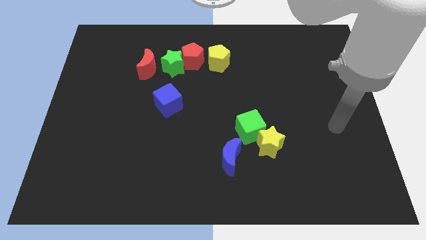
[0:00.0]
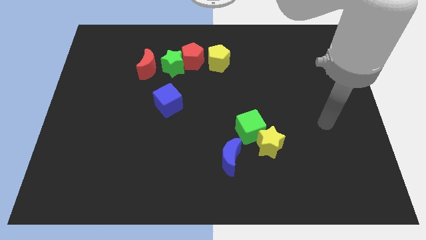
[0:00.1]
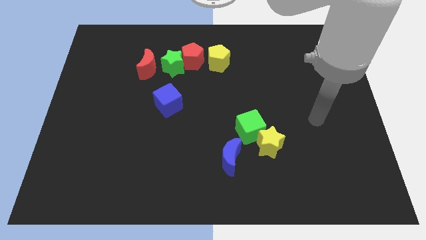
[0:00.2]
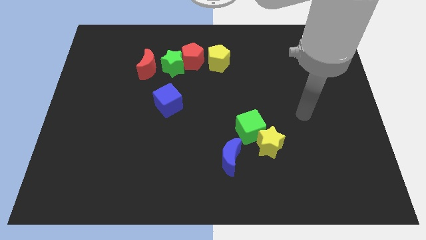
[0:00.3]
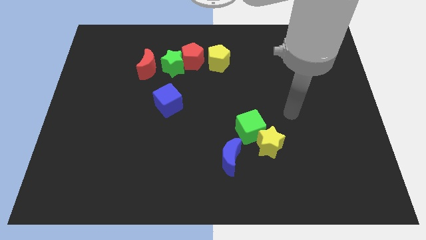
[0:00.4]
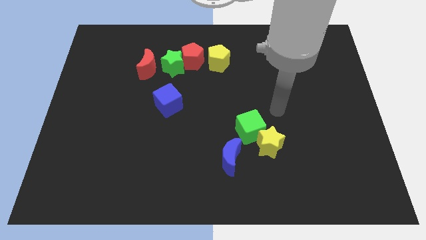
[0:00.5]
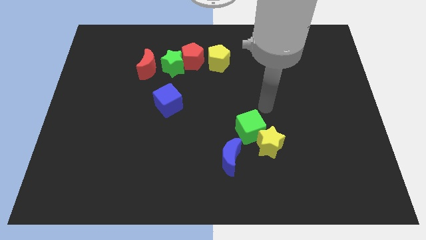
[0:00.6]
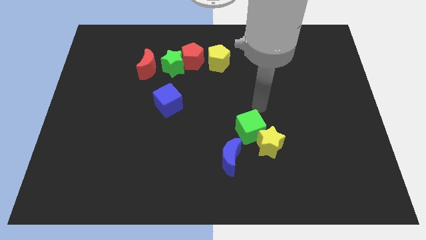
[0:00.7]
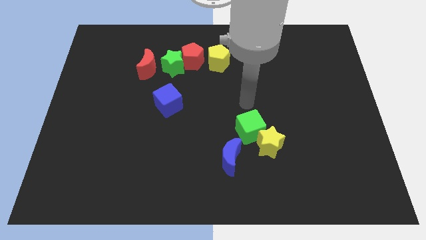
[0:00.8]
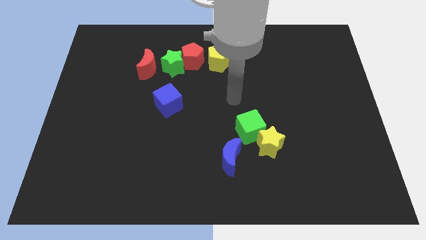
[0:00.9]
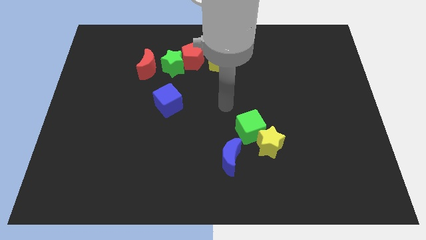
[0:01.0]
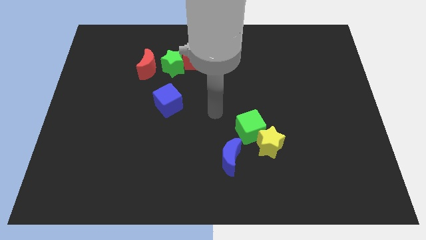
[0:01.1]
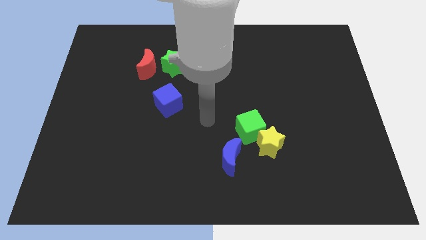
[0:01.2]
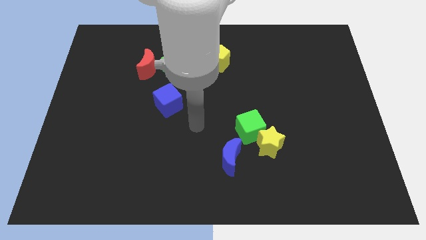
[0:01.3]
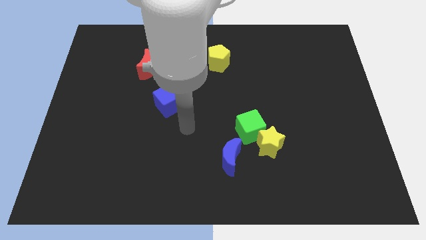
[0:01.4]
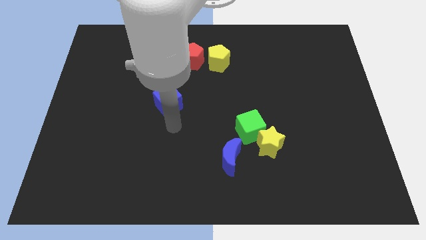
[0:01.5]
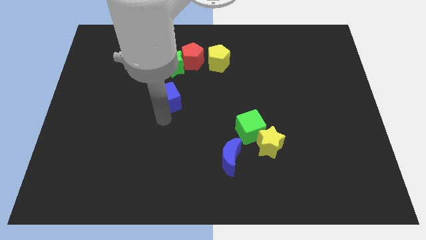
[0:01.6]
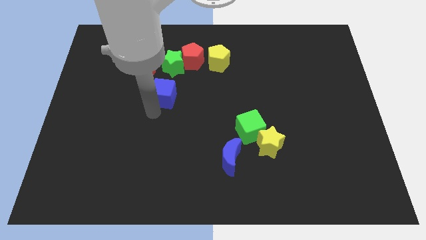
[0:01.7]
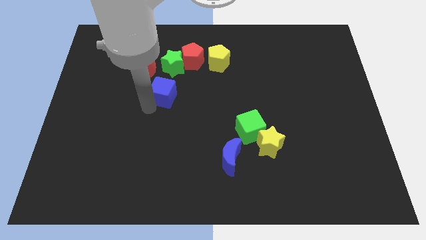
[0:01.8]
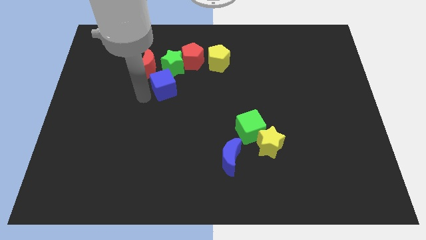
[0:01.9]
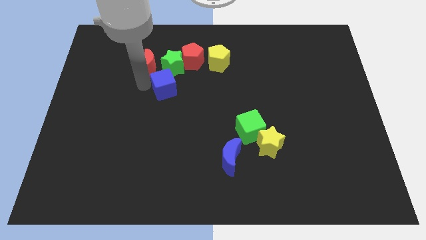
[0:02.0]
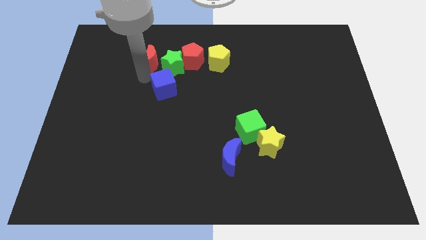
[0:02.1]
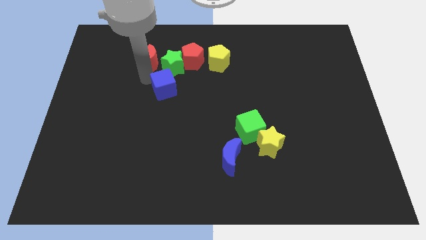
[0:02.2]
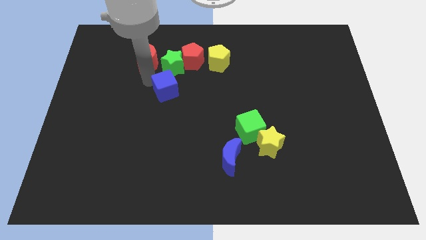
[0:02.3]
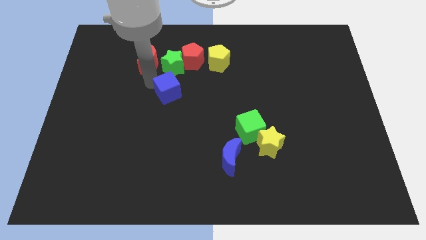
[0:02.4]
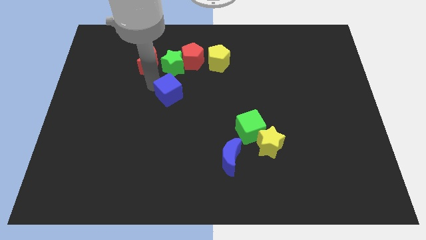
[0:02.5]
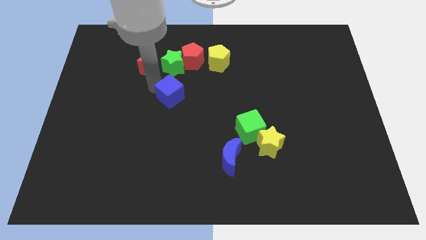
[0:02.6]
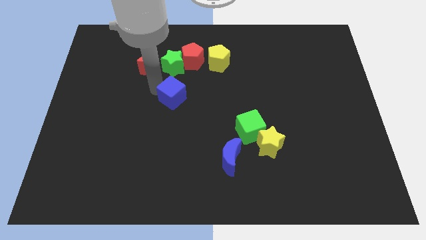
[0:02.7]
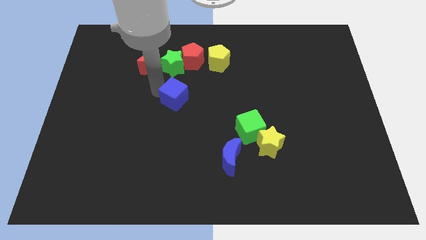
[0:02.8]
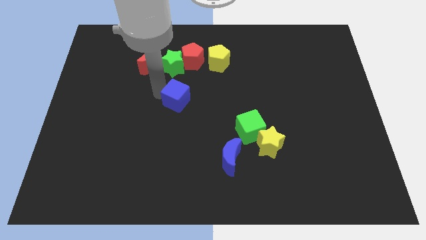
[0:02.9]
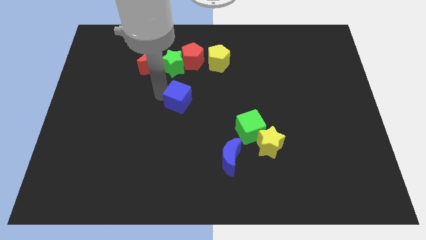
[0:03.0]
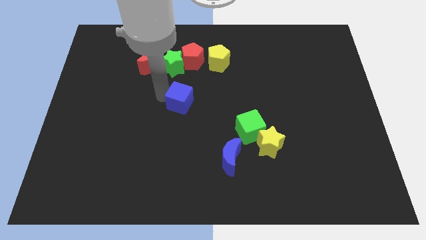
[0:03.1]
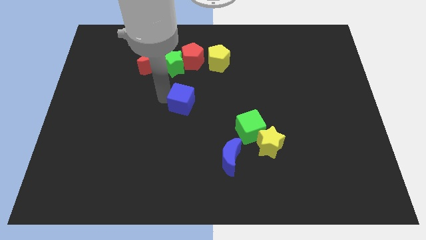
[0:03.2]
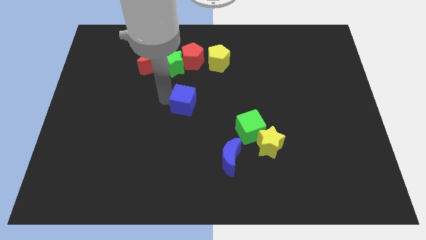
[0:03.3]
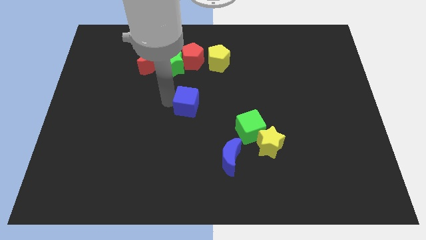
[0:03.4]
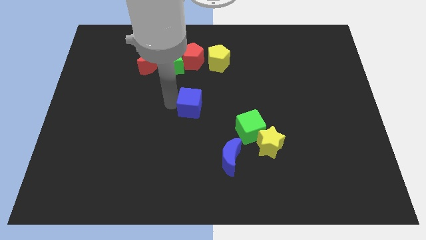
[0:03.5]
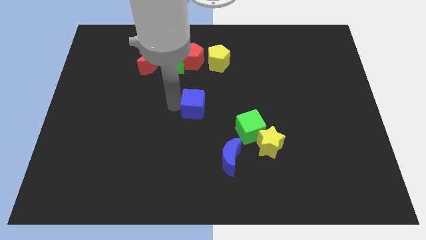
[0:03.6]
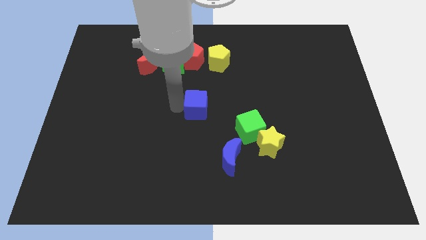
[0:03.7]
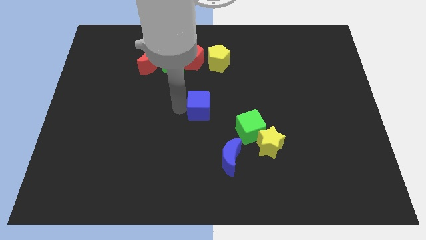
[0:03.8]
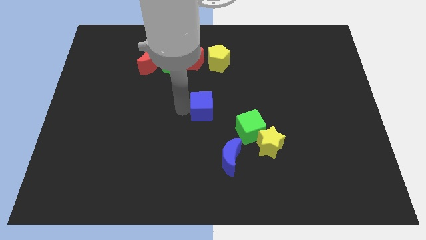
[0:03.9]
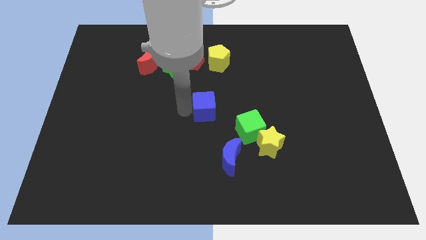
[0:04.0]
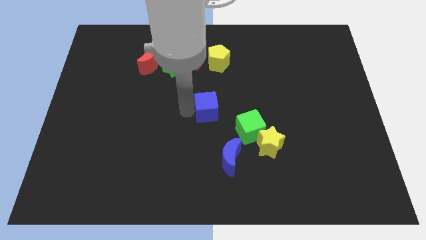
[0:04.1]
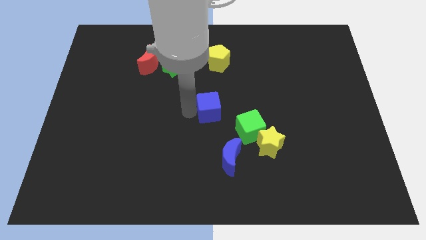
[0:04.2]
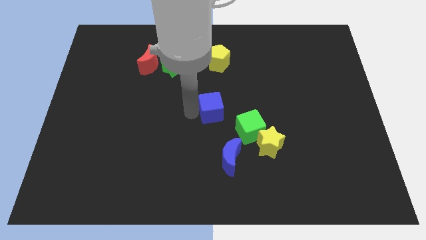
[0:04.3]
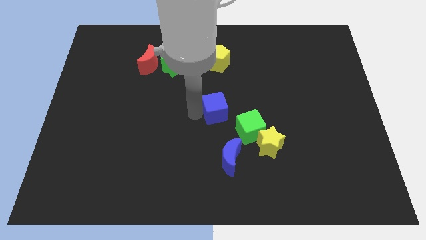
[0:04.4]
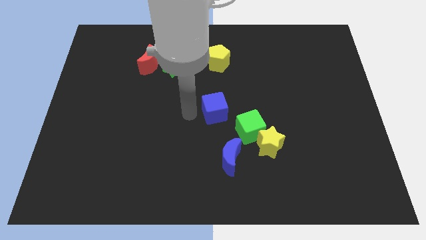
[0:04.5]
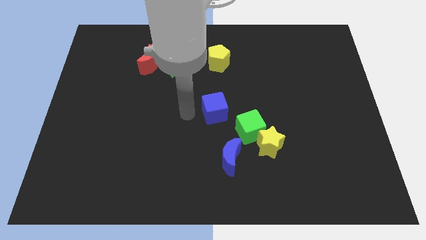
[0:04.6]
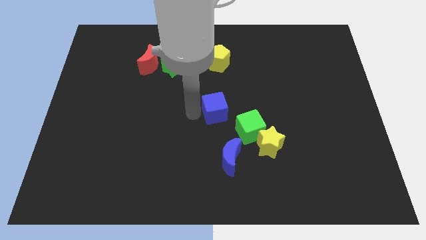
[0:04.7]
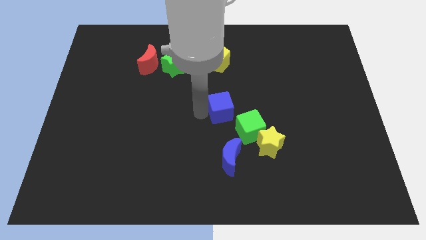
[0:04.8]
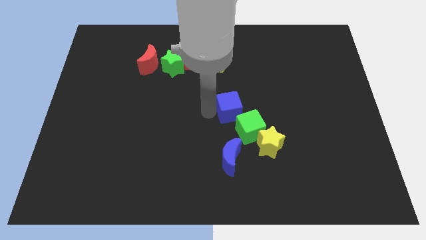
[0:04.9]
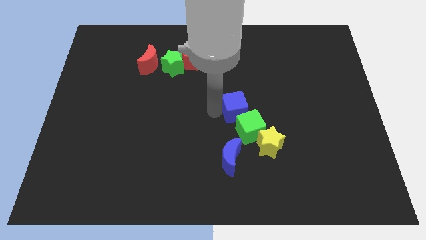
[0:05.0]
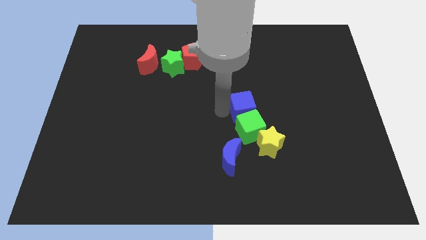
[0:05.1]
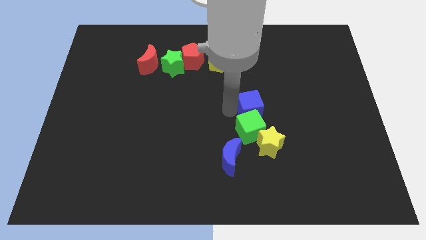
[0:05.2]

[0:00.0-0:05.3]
push the blue cube to the top side of the yellow star

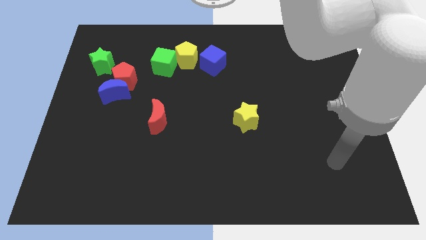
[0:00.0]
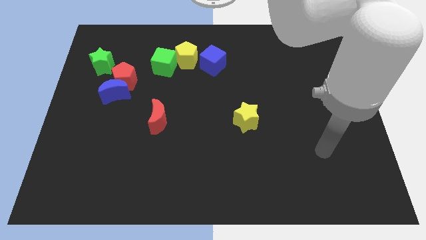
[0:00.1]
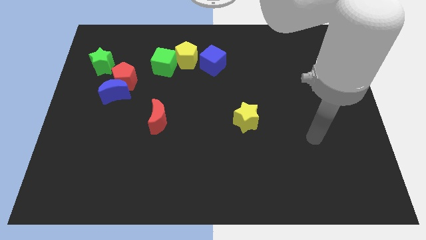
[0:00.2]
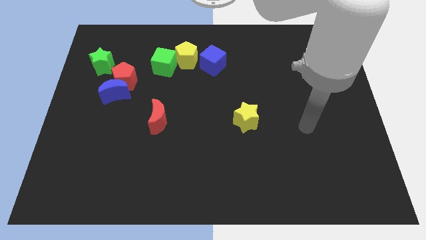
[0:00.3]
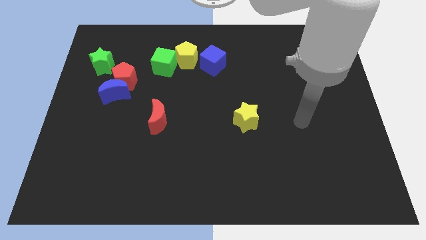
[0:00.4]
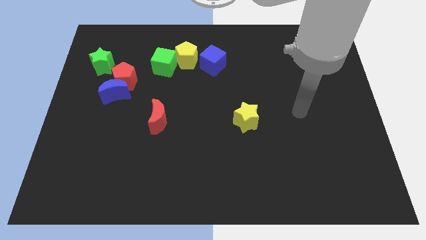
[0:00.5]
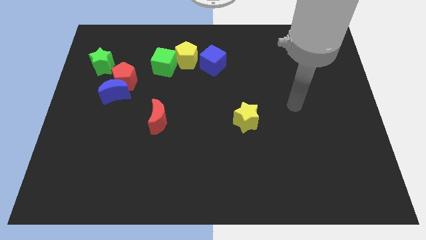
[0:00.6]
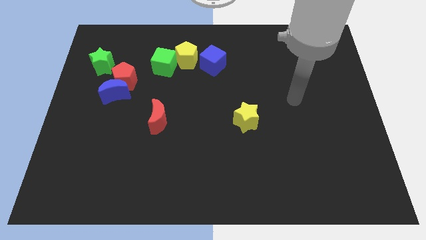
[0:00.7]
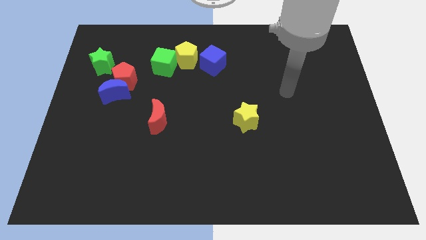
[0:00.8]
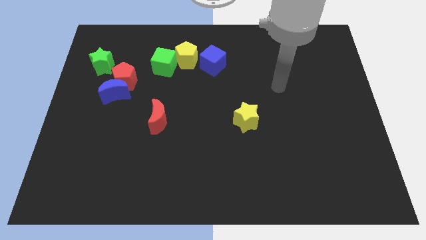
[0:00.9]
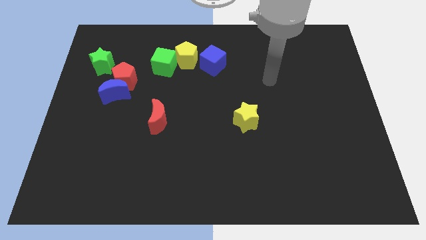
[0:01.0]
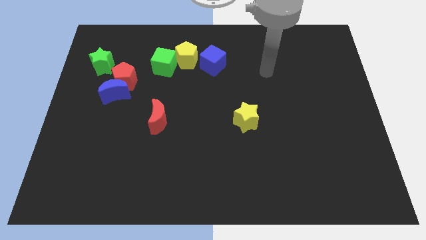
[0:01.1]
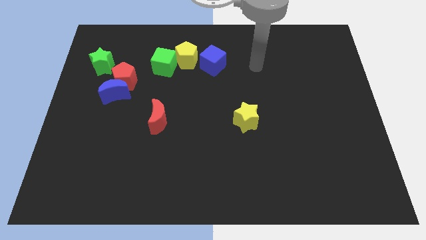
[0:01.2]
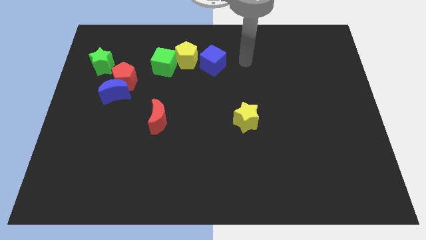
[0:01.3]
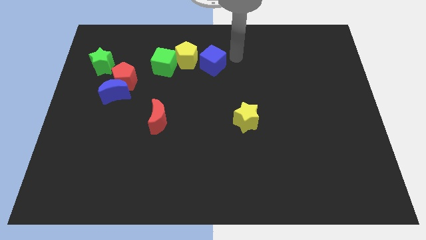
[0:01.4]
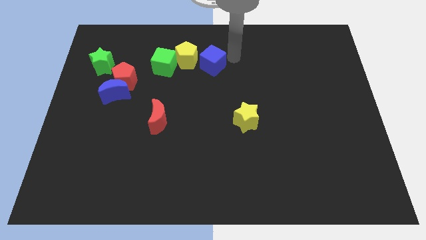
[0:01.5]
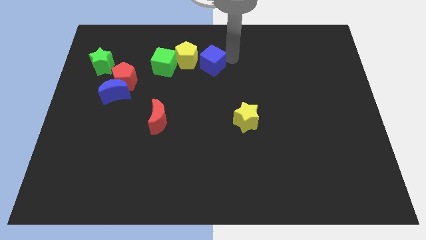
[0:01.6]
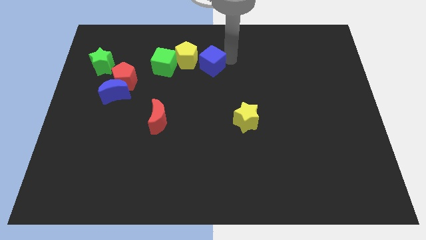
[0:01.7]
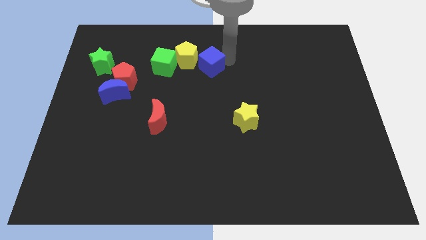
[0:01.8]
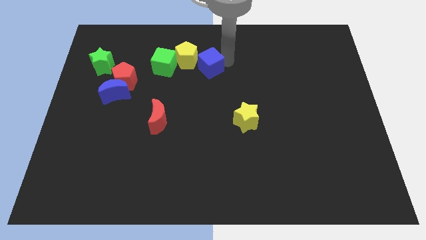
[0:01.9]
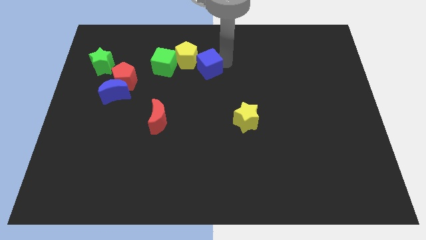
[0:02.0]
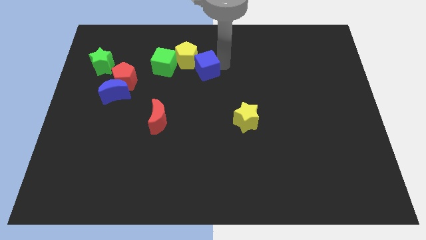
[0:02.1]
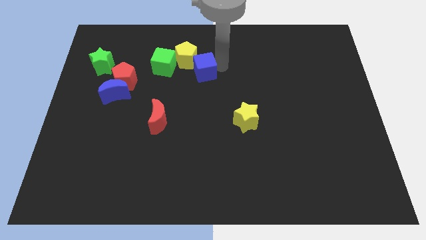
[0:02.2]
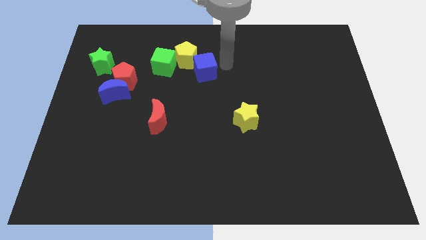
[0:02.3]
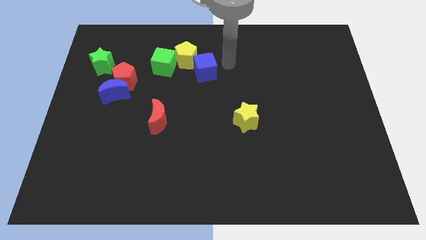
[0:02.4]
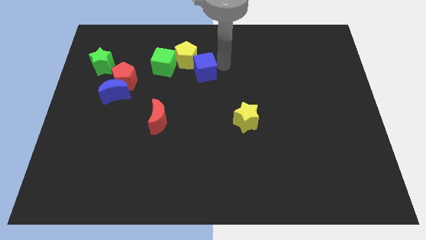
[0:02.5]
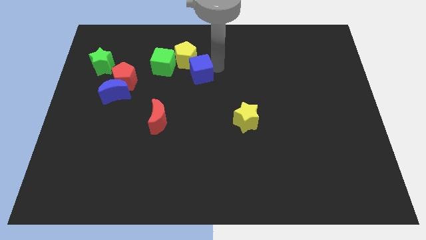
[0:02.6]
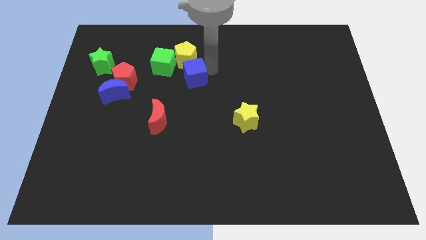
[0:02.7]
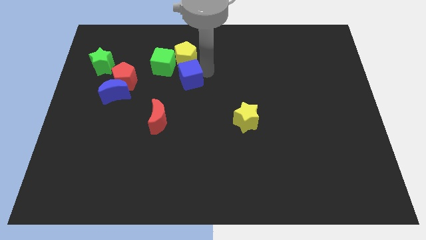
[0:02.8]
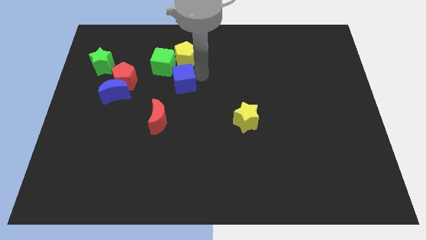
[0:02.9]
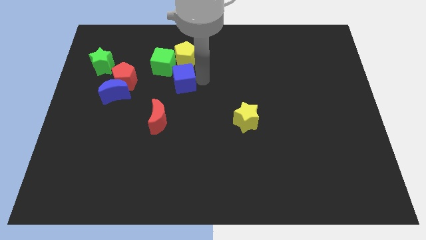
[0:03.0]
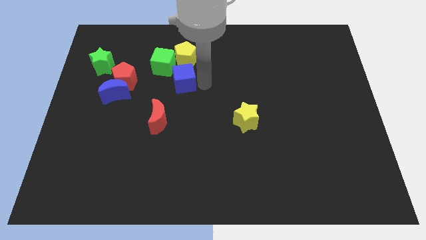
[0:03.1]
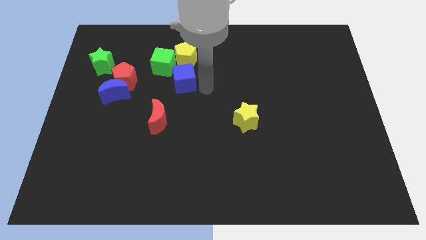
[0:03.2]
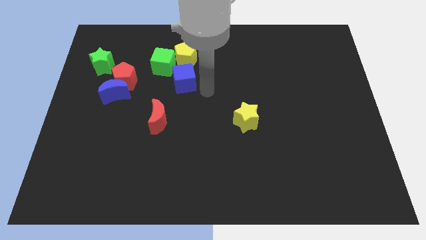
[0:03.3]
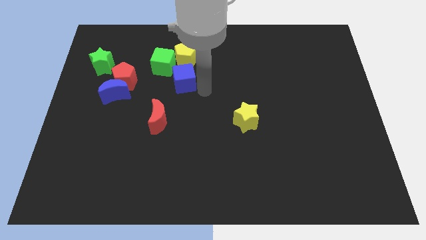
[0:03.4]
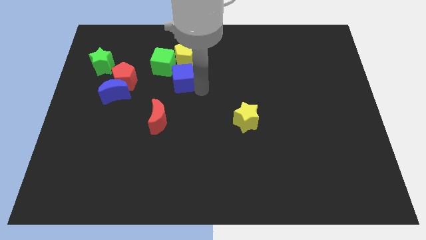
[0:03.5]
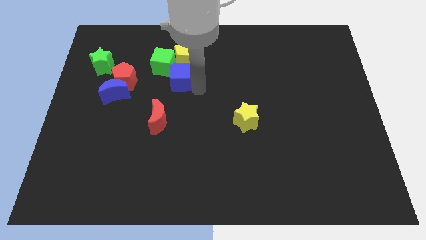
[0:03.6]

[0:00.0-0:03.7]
move the blue cube to the bottom left of the yellow pentagon
